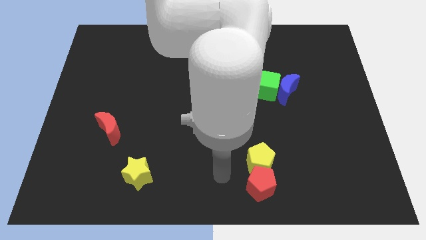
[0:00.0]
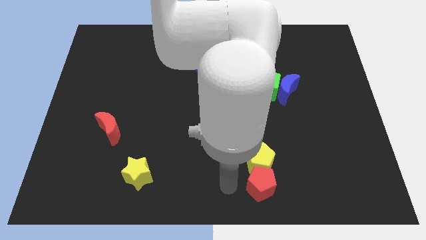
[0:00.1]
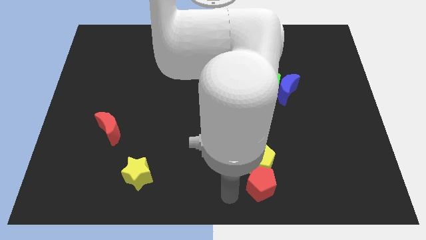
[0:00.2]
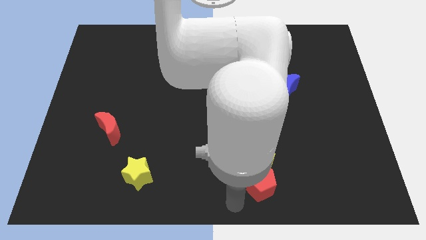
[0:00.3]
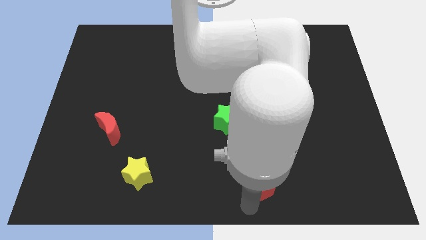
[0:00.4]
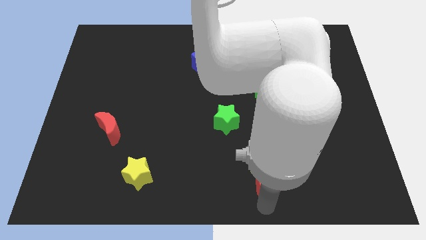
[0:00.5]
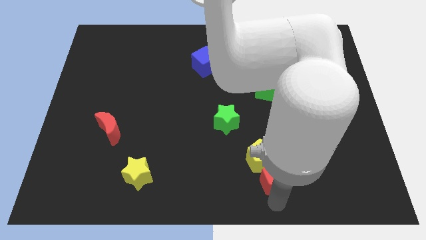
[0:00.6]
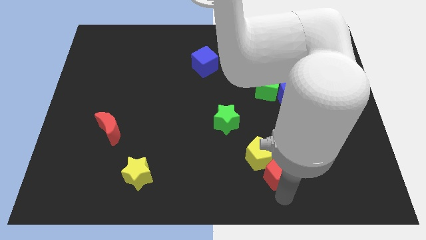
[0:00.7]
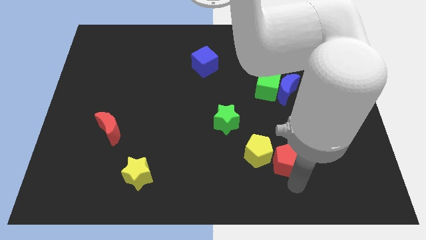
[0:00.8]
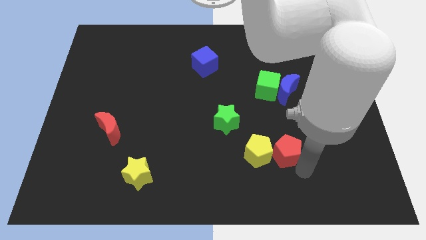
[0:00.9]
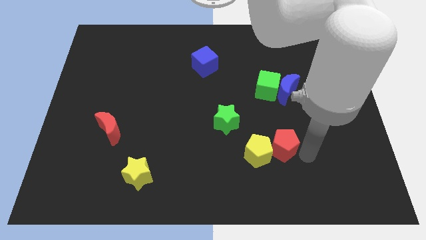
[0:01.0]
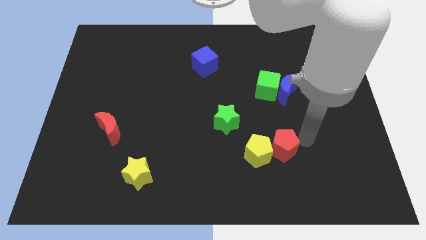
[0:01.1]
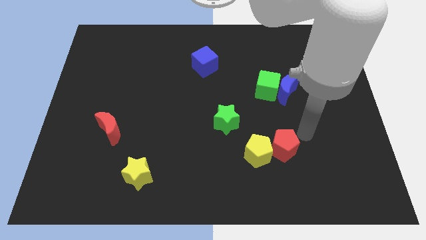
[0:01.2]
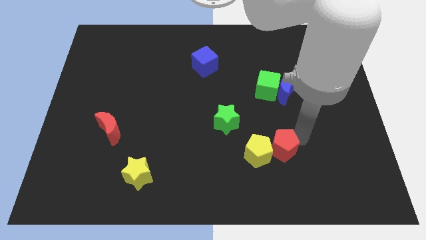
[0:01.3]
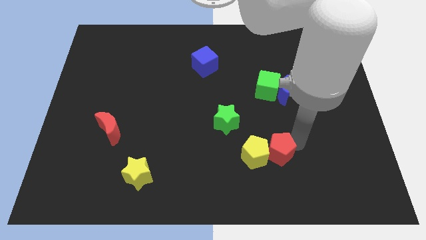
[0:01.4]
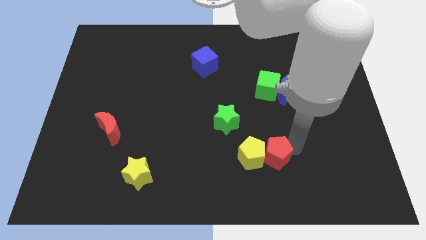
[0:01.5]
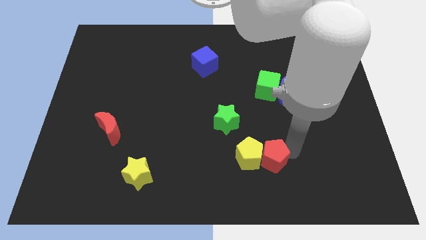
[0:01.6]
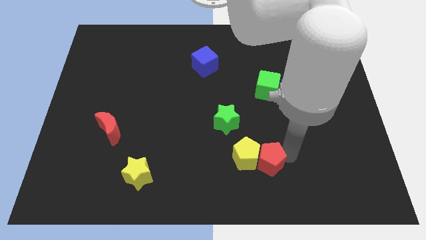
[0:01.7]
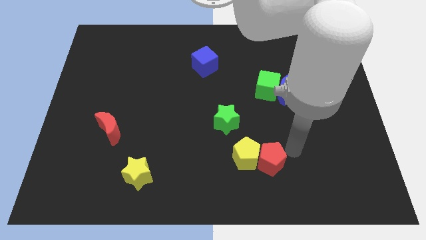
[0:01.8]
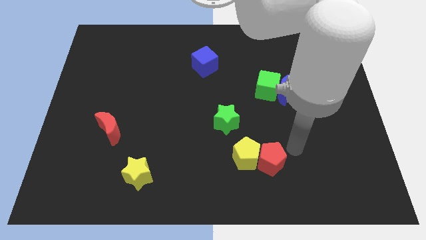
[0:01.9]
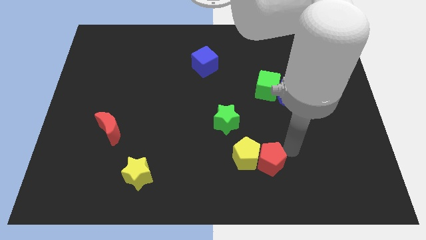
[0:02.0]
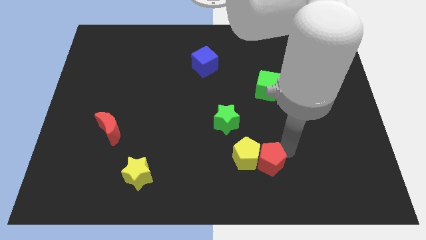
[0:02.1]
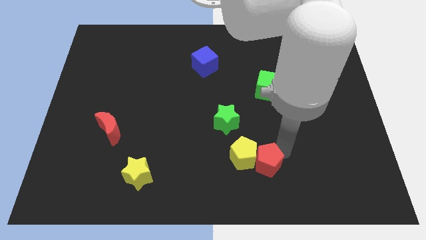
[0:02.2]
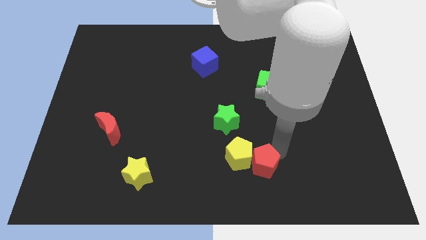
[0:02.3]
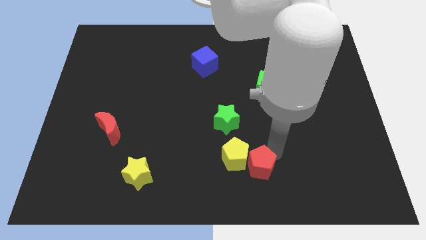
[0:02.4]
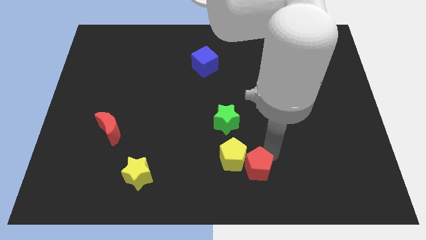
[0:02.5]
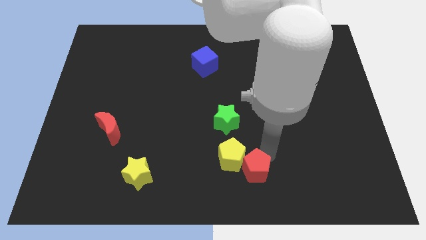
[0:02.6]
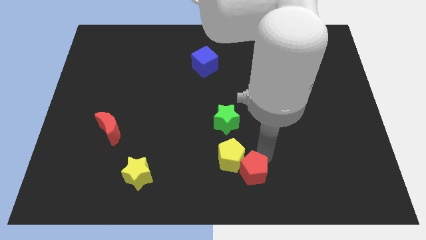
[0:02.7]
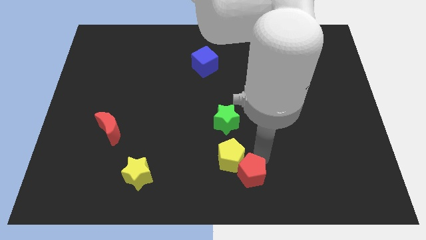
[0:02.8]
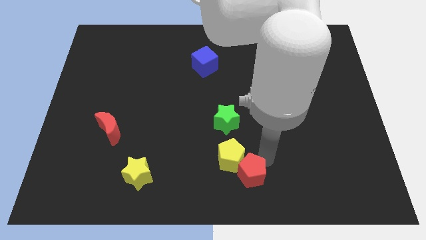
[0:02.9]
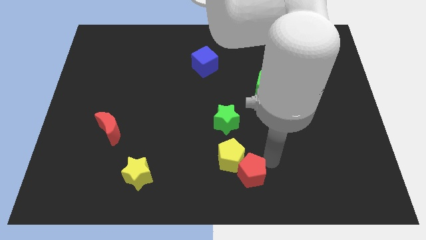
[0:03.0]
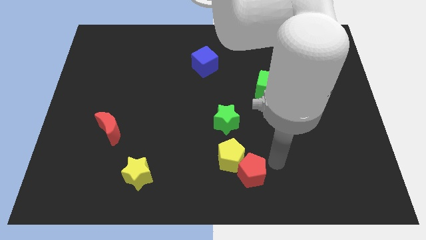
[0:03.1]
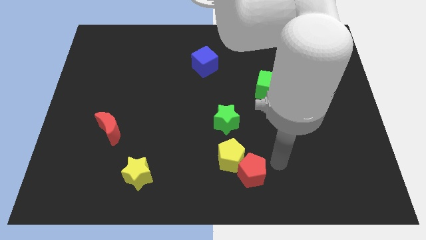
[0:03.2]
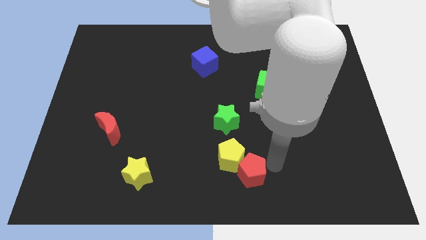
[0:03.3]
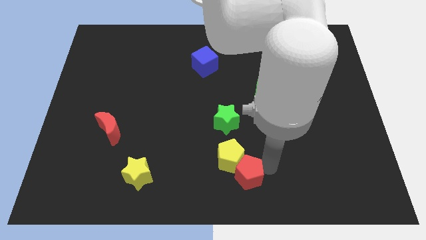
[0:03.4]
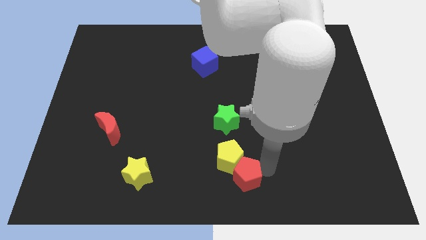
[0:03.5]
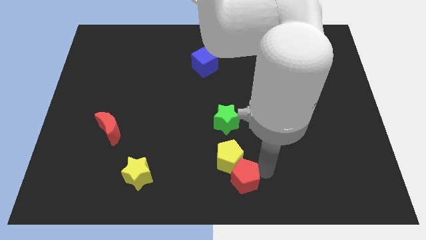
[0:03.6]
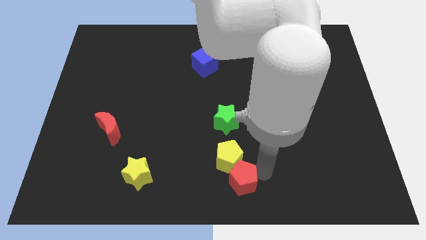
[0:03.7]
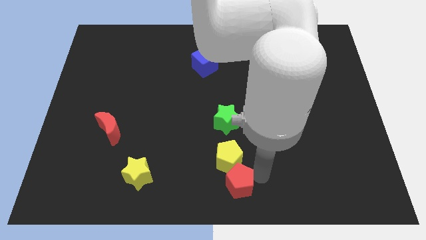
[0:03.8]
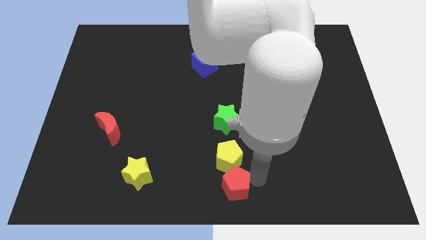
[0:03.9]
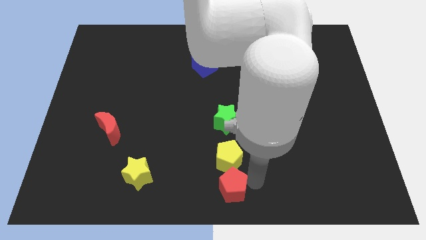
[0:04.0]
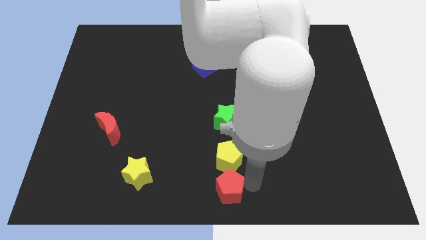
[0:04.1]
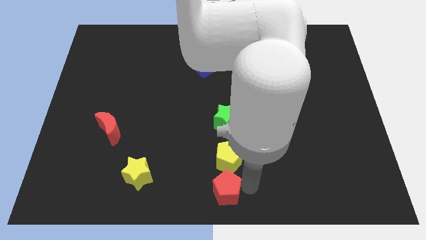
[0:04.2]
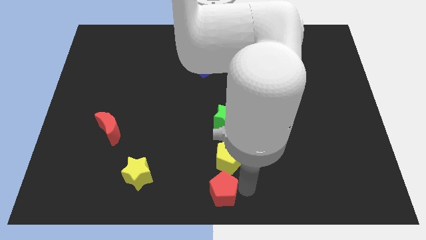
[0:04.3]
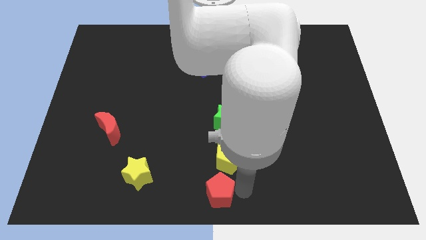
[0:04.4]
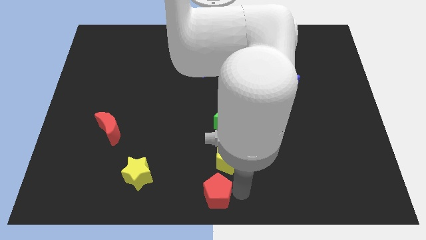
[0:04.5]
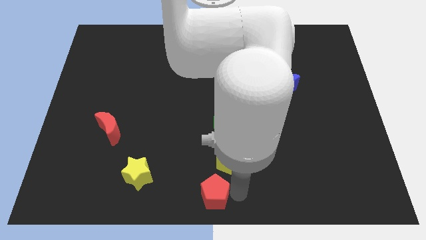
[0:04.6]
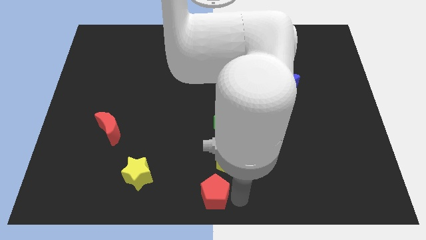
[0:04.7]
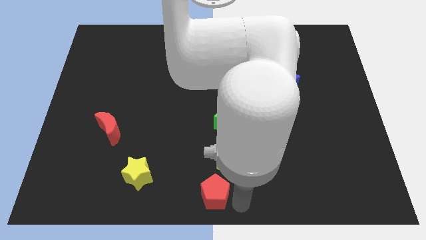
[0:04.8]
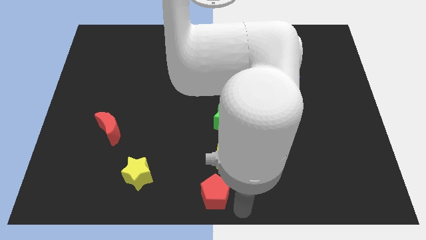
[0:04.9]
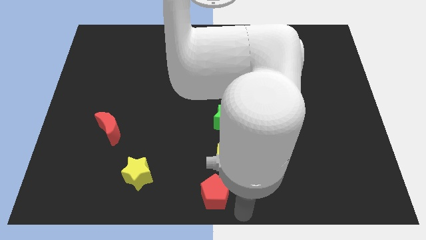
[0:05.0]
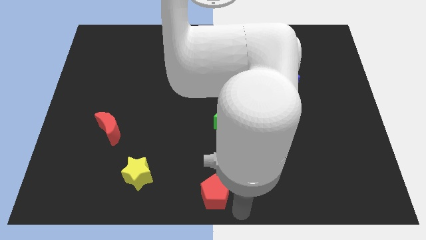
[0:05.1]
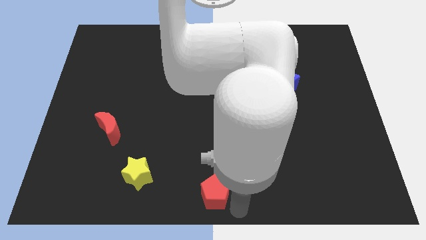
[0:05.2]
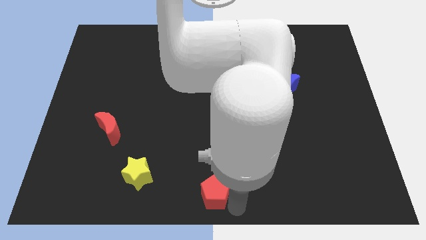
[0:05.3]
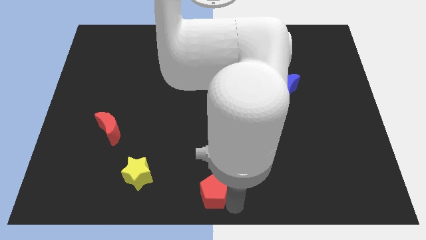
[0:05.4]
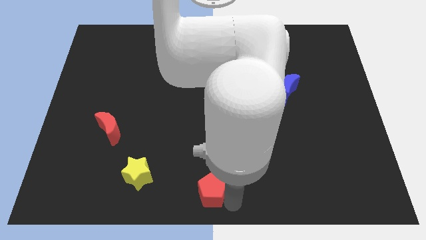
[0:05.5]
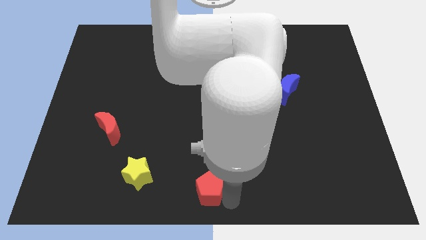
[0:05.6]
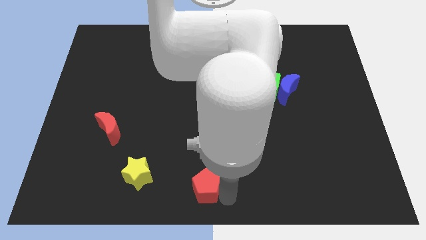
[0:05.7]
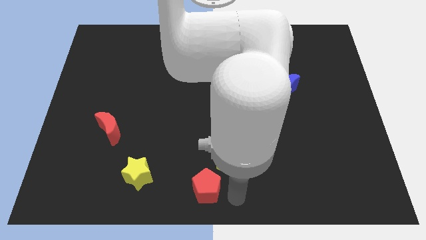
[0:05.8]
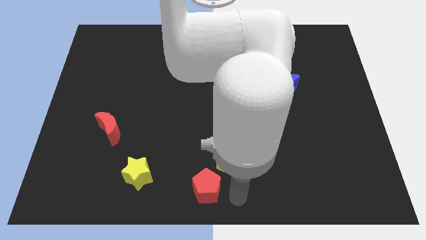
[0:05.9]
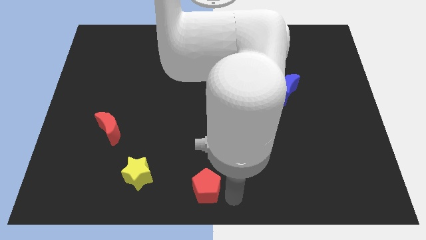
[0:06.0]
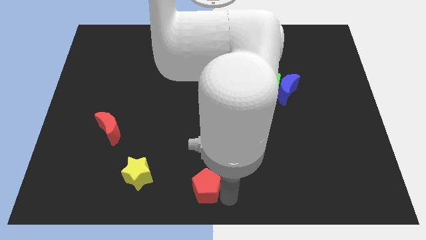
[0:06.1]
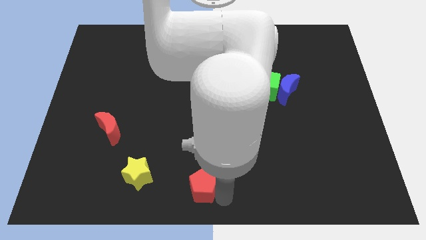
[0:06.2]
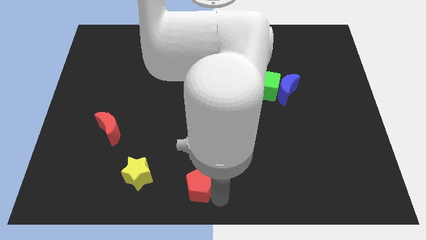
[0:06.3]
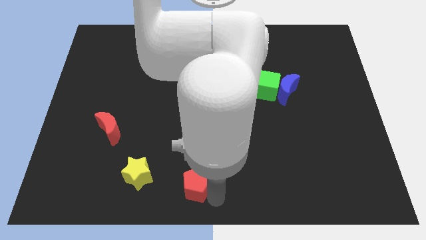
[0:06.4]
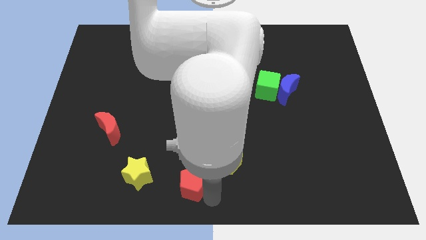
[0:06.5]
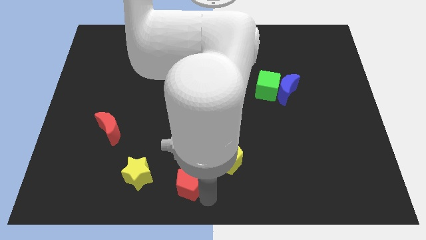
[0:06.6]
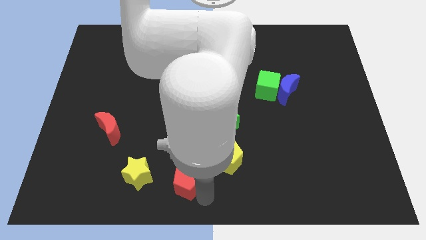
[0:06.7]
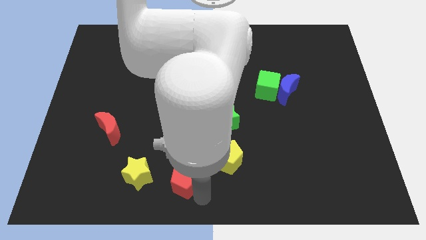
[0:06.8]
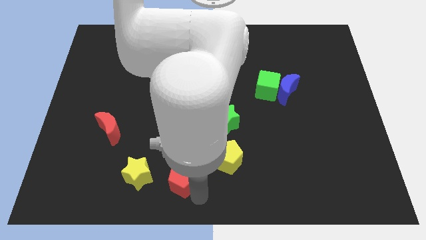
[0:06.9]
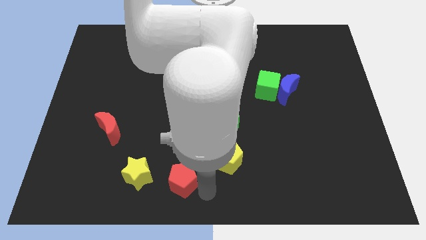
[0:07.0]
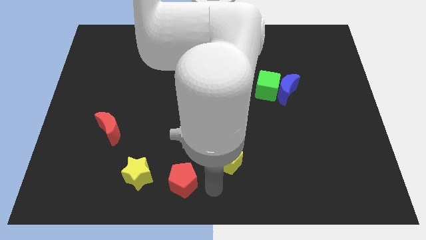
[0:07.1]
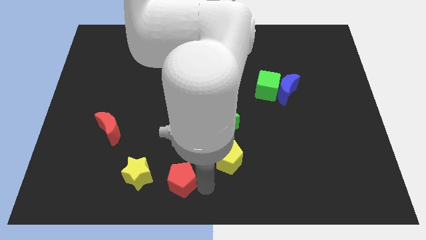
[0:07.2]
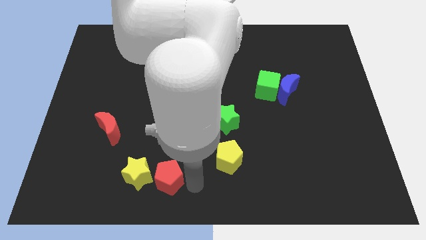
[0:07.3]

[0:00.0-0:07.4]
push the red pentagon to the yellow star
